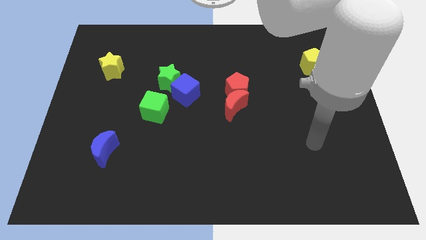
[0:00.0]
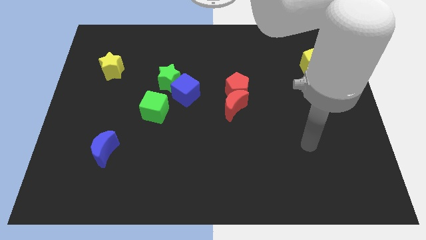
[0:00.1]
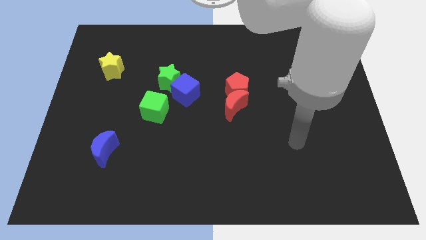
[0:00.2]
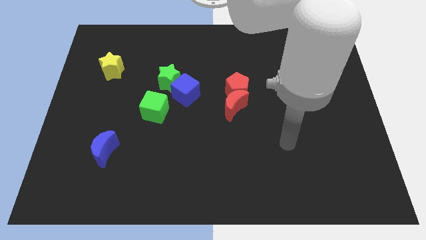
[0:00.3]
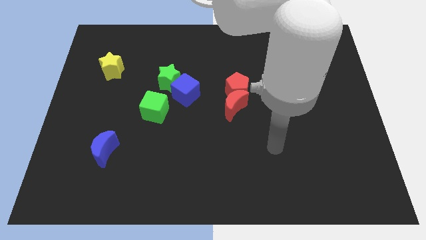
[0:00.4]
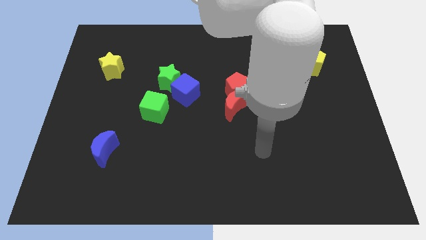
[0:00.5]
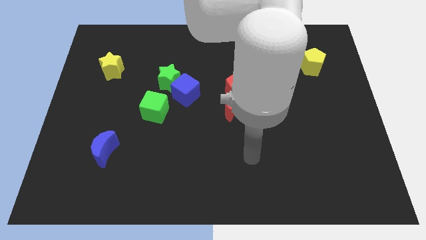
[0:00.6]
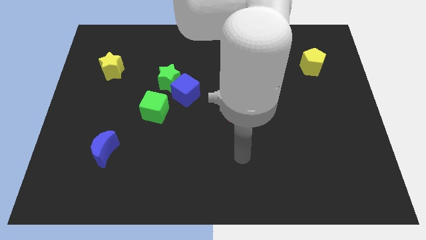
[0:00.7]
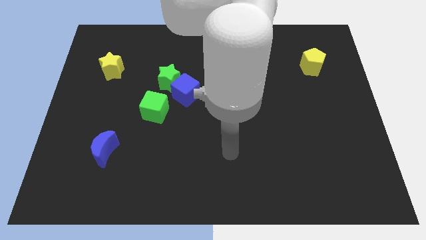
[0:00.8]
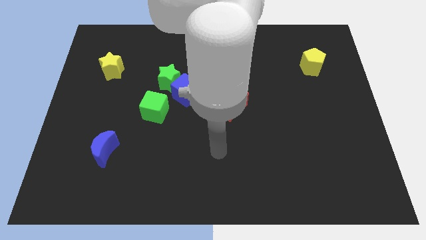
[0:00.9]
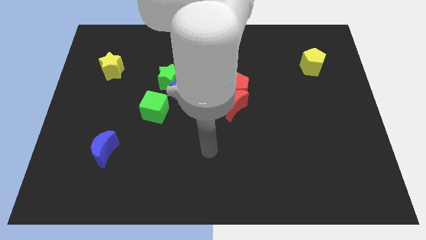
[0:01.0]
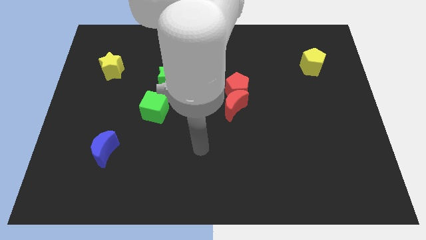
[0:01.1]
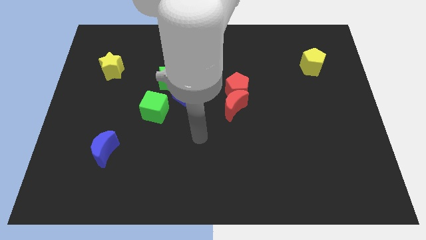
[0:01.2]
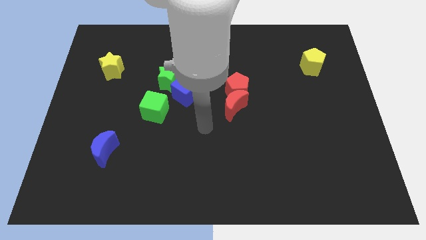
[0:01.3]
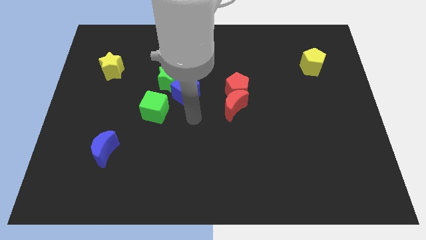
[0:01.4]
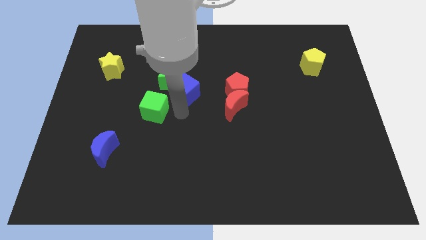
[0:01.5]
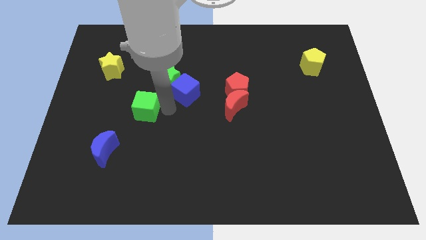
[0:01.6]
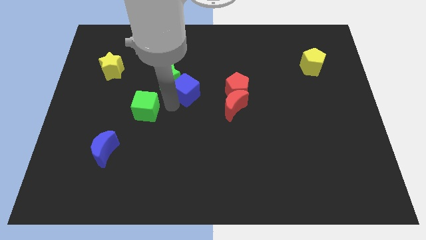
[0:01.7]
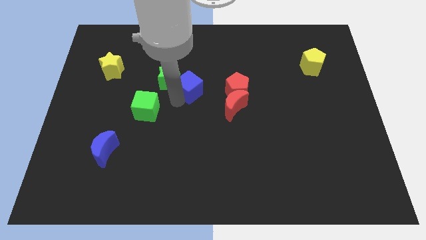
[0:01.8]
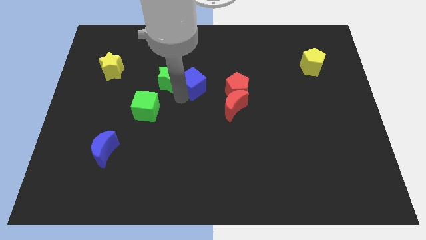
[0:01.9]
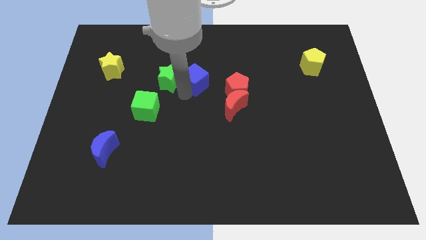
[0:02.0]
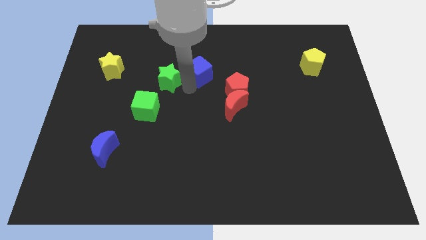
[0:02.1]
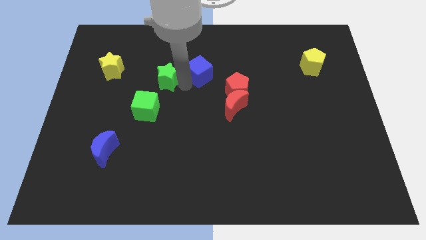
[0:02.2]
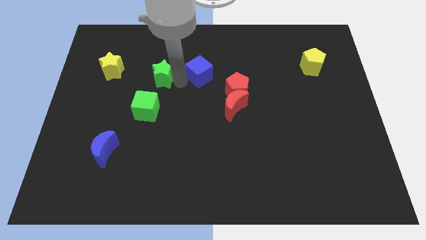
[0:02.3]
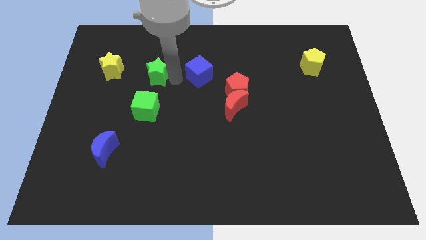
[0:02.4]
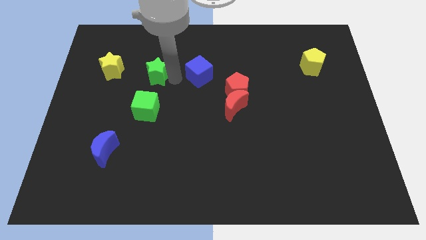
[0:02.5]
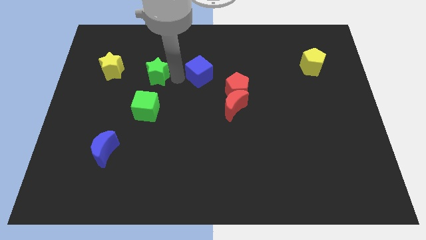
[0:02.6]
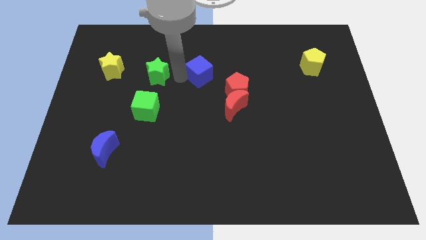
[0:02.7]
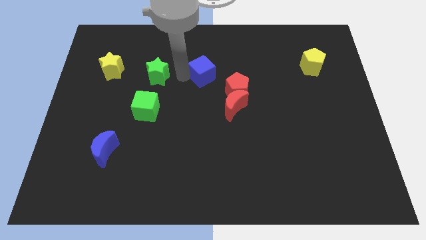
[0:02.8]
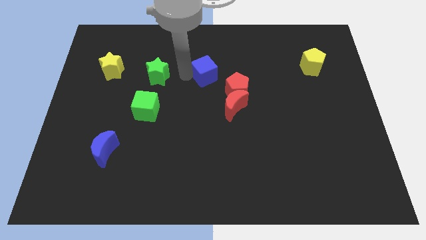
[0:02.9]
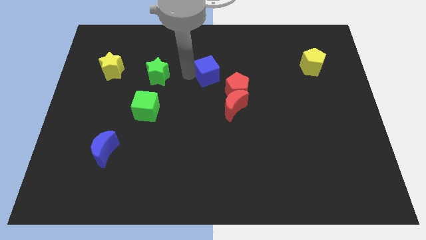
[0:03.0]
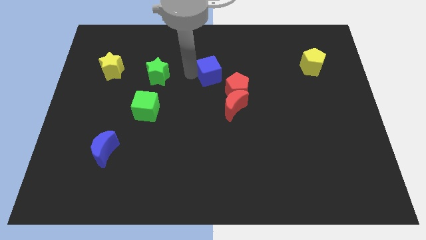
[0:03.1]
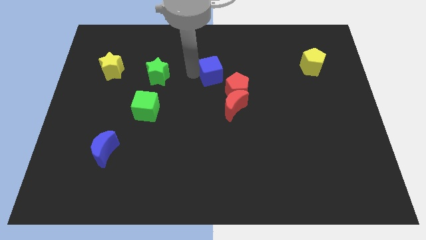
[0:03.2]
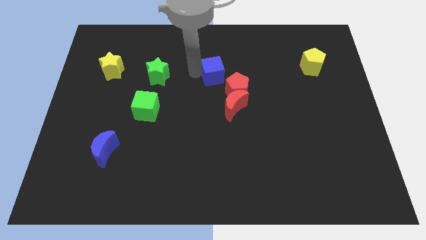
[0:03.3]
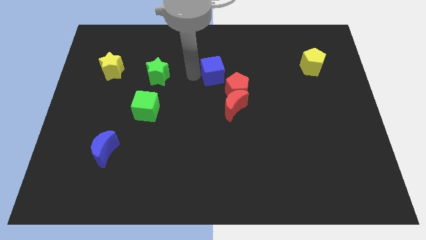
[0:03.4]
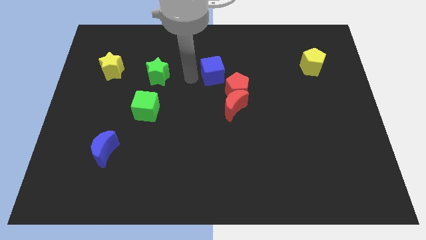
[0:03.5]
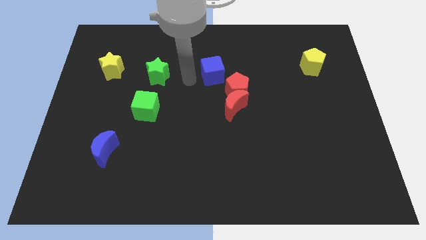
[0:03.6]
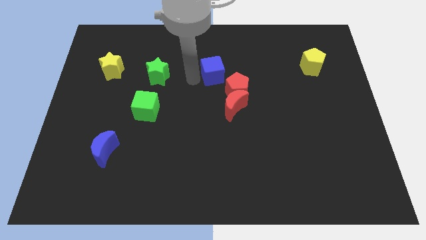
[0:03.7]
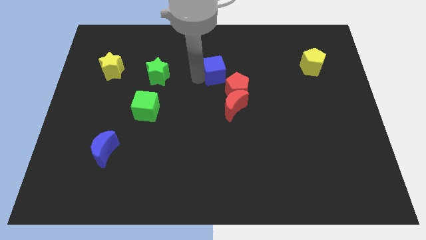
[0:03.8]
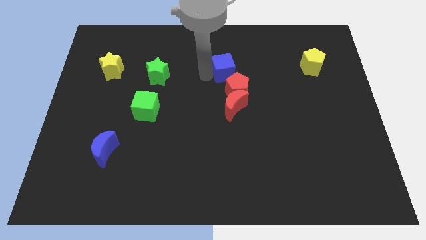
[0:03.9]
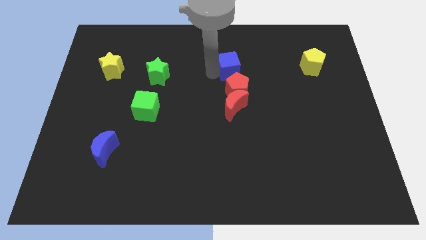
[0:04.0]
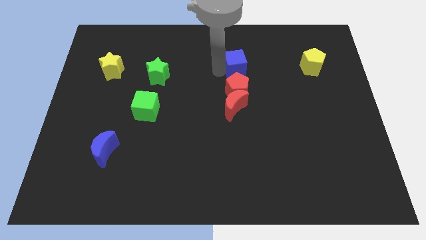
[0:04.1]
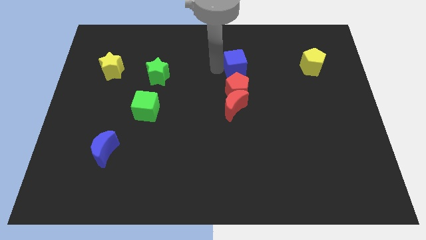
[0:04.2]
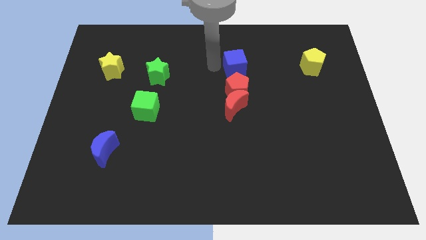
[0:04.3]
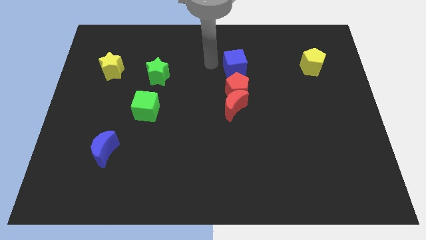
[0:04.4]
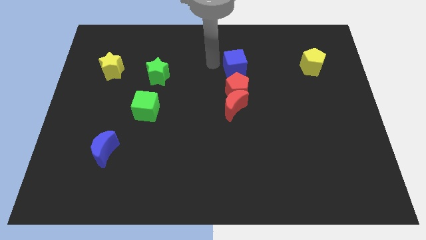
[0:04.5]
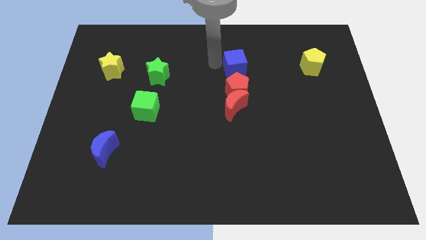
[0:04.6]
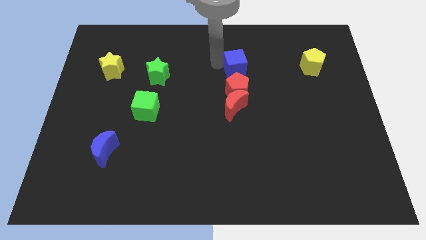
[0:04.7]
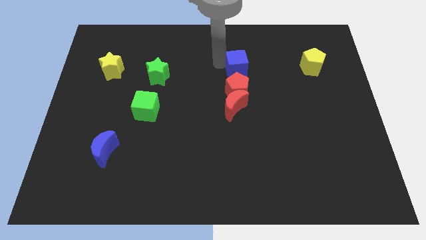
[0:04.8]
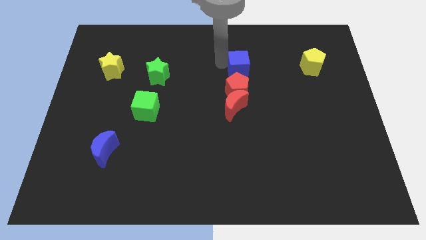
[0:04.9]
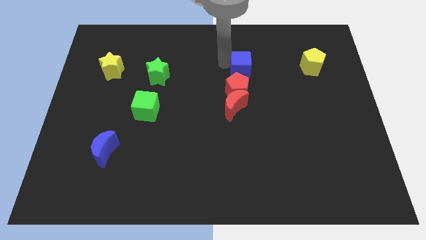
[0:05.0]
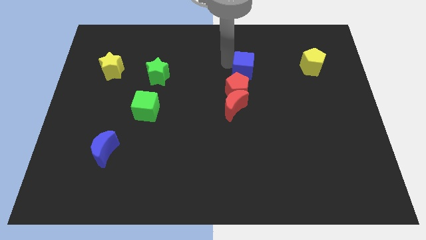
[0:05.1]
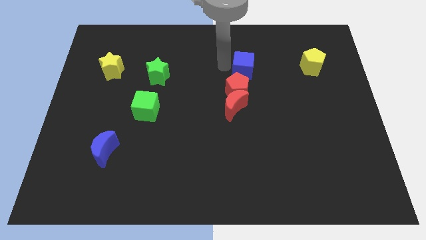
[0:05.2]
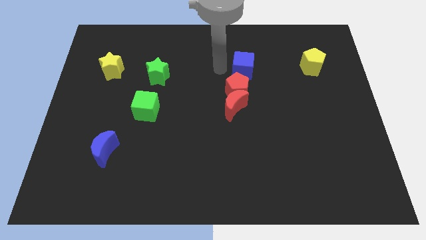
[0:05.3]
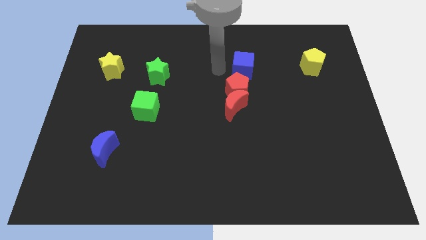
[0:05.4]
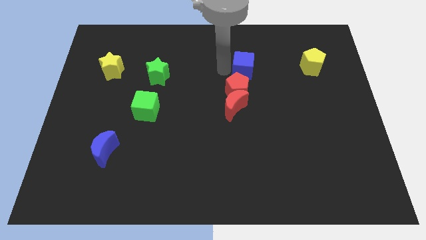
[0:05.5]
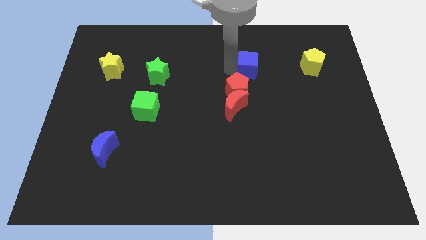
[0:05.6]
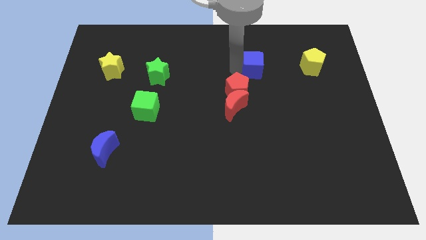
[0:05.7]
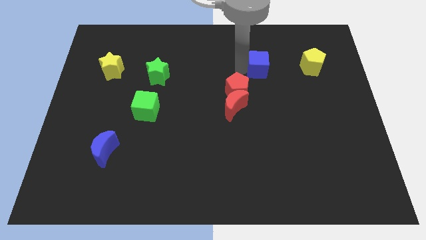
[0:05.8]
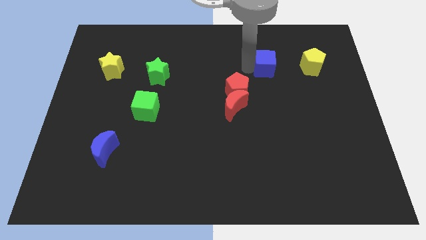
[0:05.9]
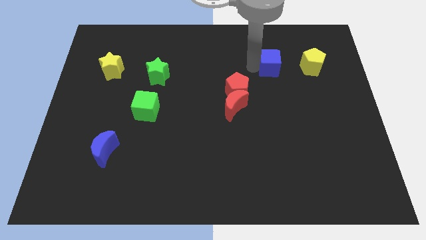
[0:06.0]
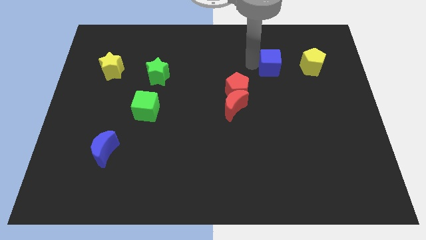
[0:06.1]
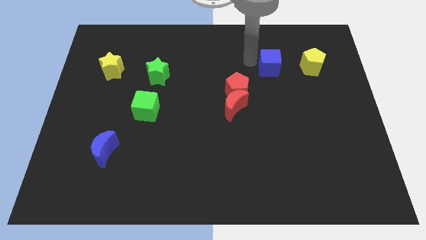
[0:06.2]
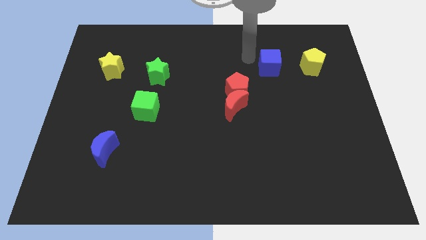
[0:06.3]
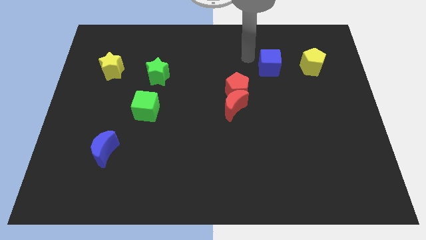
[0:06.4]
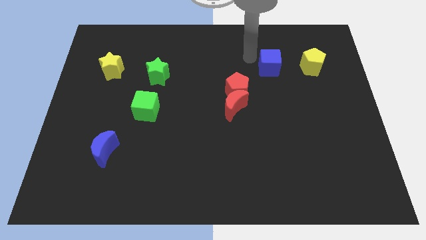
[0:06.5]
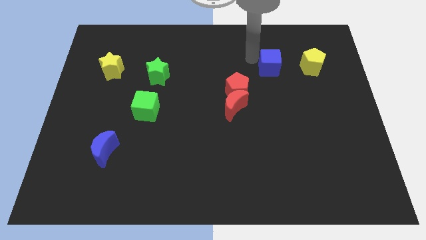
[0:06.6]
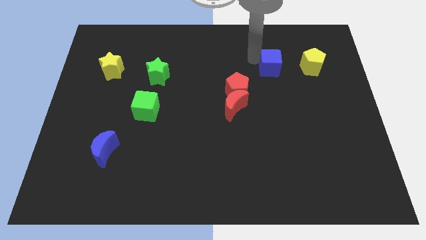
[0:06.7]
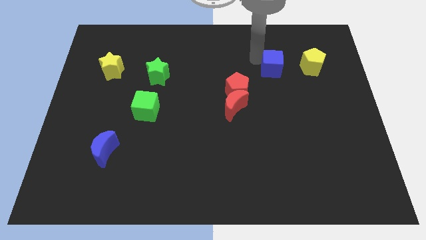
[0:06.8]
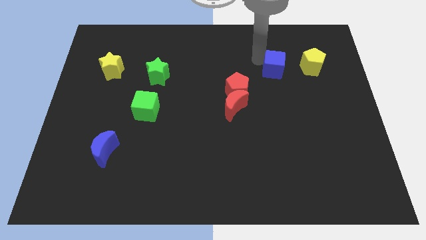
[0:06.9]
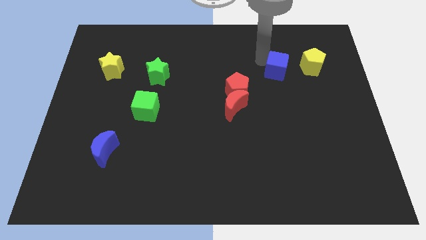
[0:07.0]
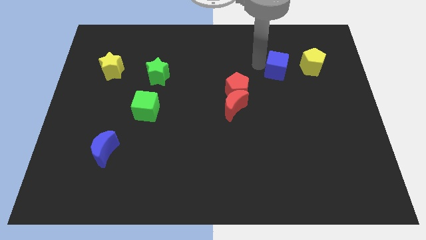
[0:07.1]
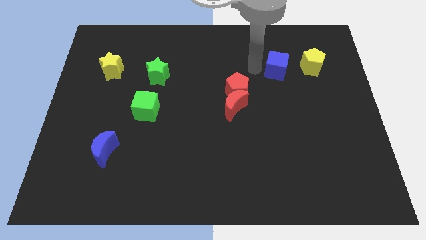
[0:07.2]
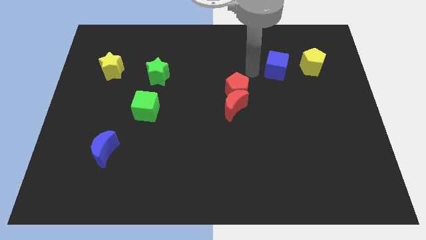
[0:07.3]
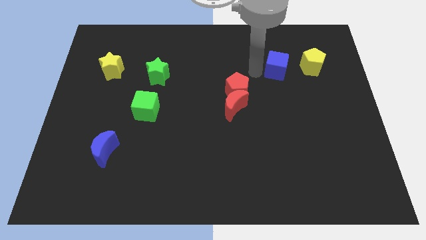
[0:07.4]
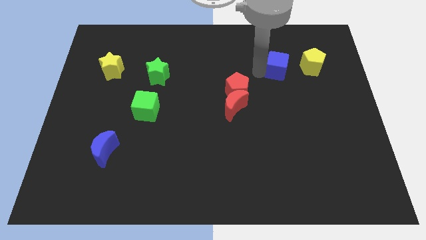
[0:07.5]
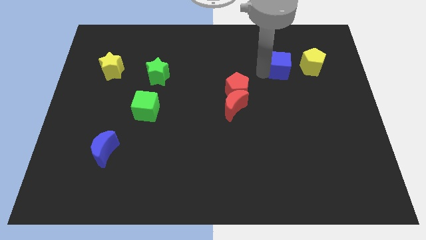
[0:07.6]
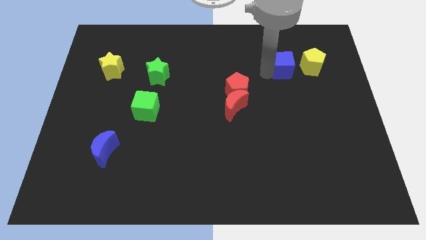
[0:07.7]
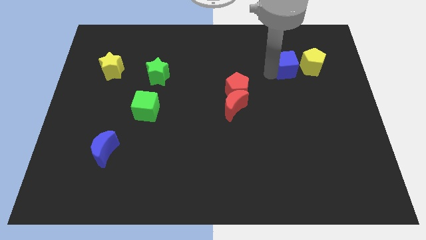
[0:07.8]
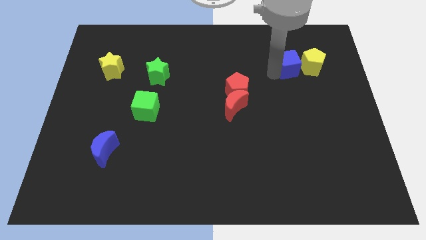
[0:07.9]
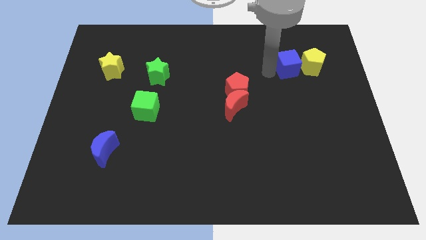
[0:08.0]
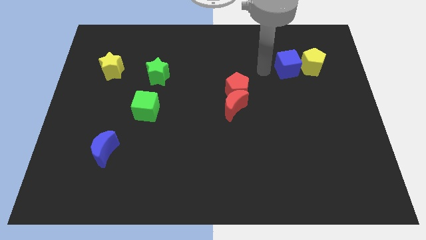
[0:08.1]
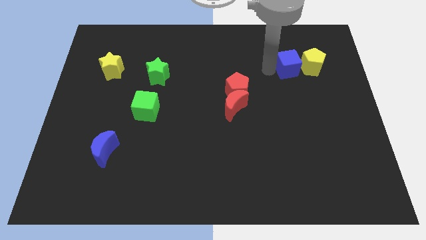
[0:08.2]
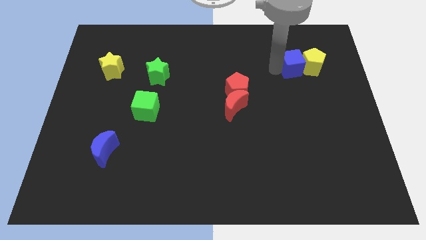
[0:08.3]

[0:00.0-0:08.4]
move the blue cube to the yellow pentagon
